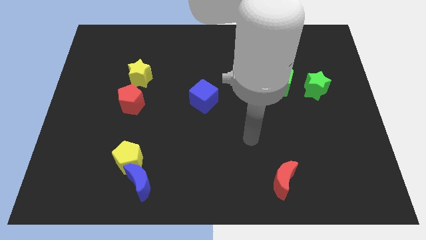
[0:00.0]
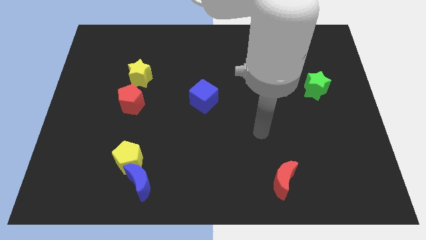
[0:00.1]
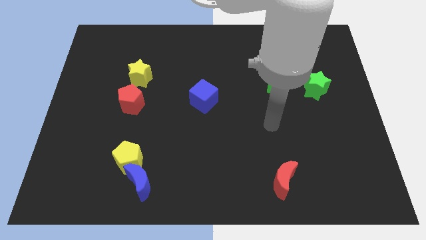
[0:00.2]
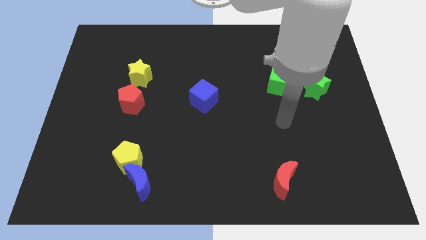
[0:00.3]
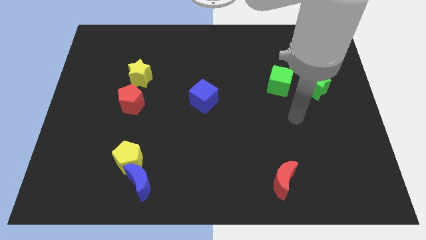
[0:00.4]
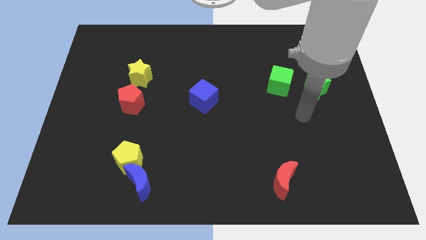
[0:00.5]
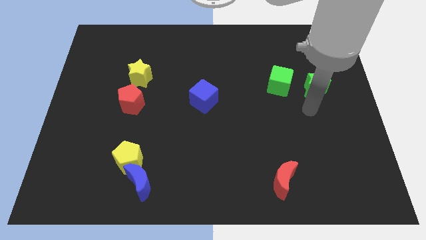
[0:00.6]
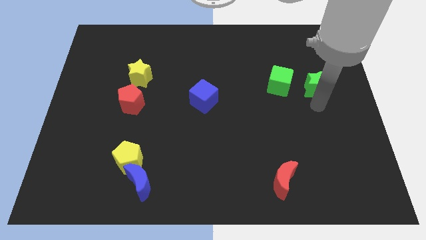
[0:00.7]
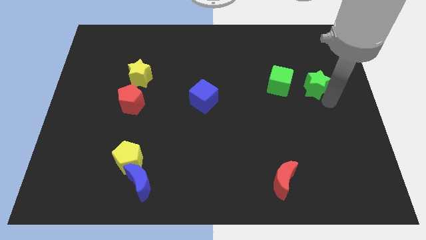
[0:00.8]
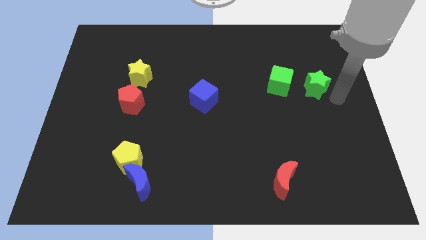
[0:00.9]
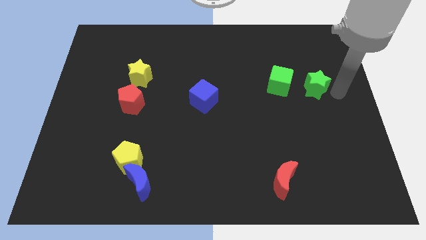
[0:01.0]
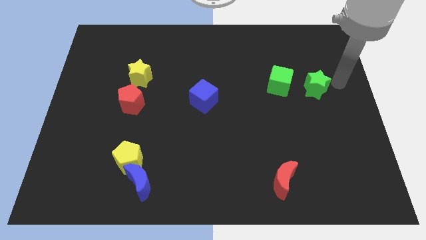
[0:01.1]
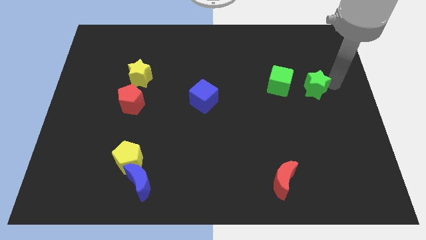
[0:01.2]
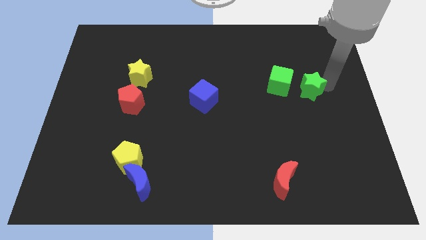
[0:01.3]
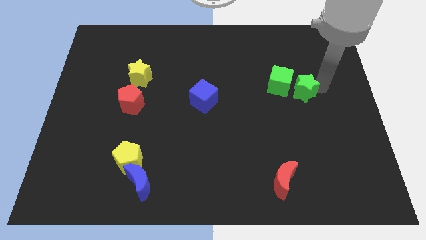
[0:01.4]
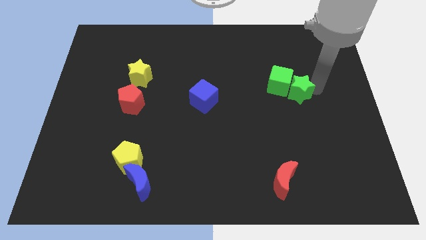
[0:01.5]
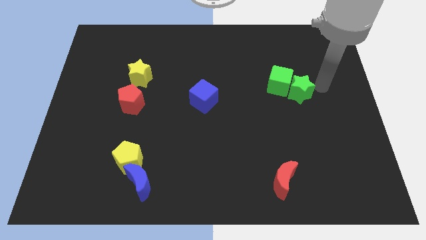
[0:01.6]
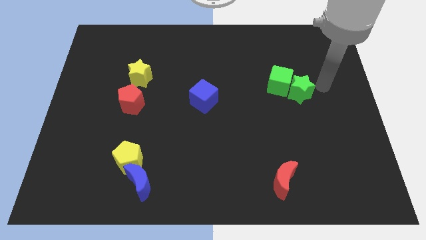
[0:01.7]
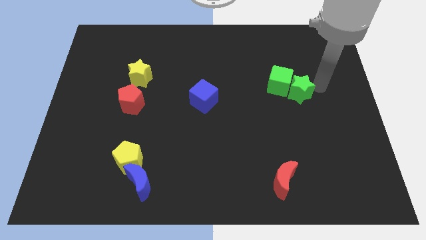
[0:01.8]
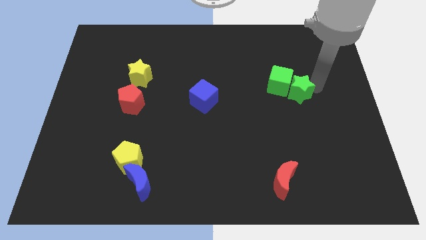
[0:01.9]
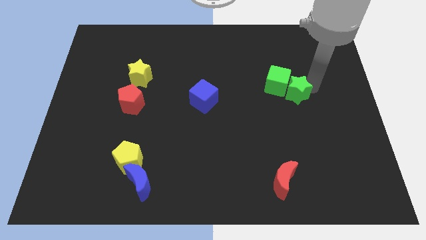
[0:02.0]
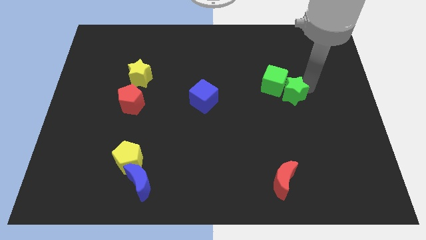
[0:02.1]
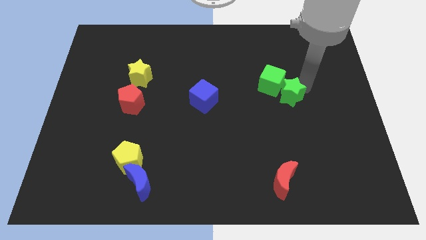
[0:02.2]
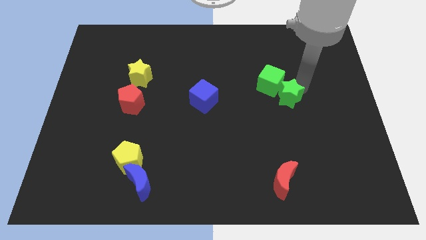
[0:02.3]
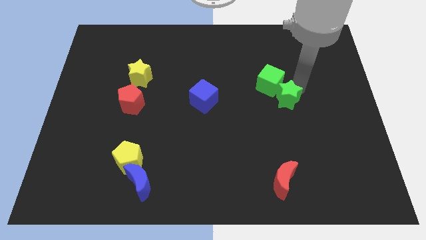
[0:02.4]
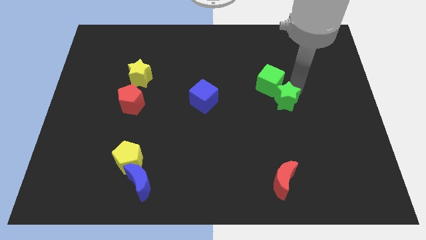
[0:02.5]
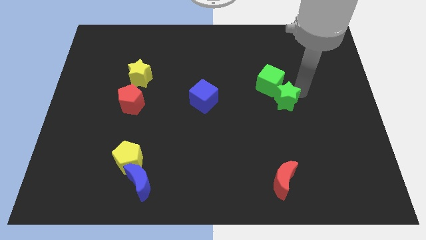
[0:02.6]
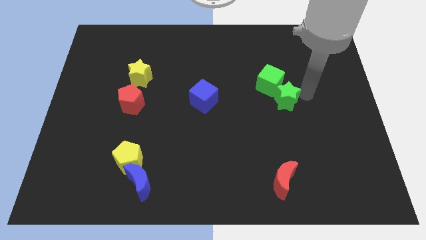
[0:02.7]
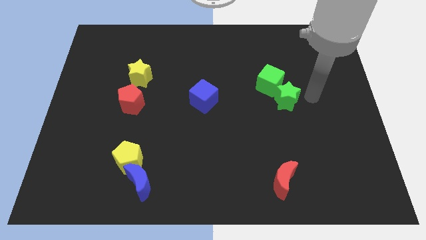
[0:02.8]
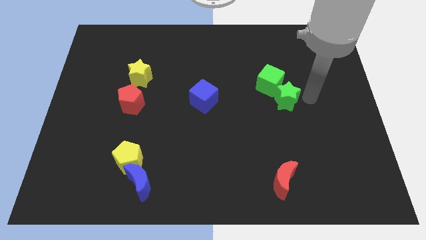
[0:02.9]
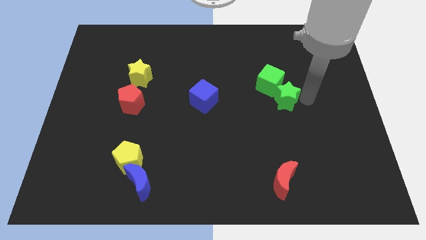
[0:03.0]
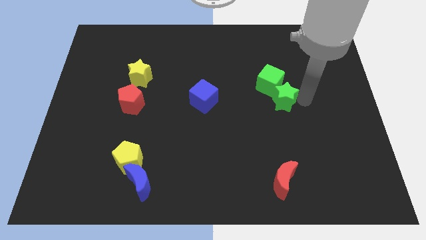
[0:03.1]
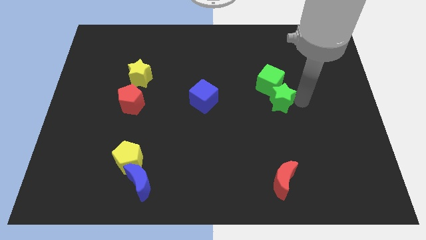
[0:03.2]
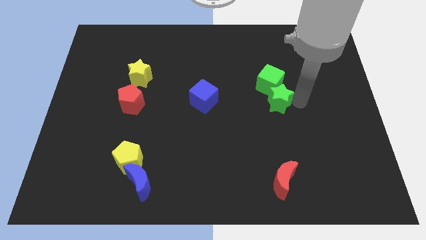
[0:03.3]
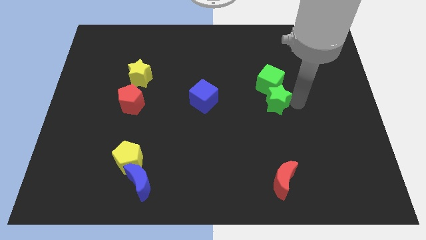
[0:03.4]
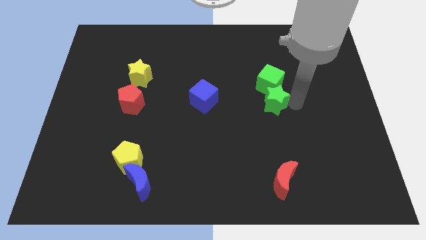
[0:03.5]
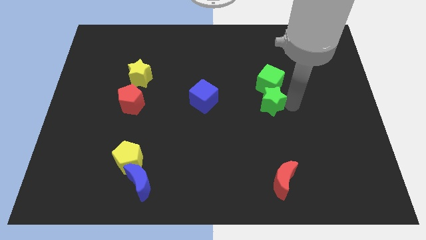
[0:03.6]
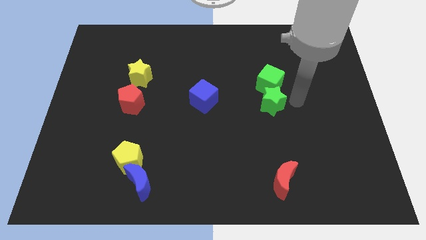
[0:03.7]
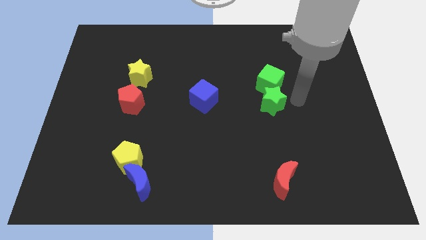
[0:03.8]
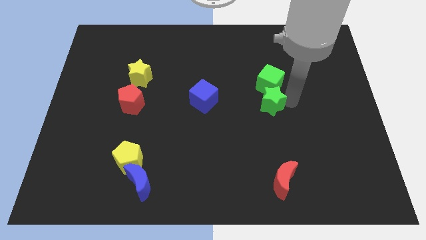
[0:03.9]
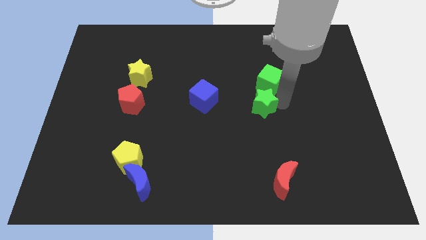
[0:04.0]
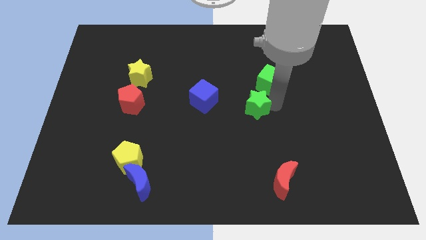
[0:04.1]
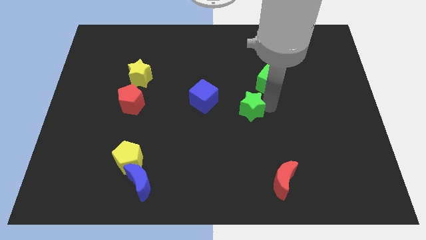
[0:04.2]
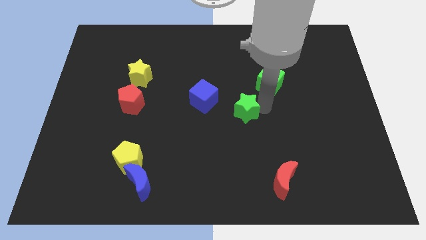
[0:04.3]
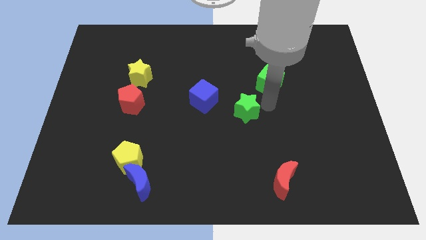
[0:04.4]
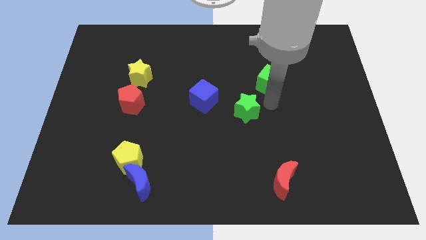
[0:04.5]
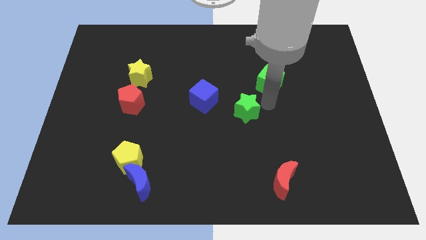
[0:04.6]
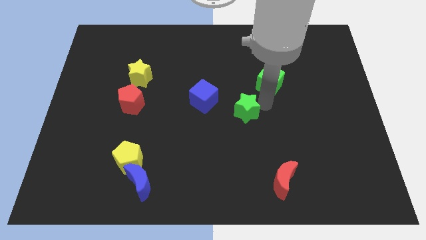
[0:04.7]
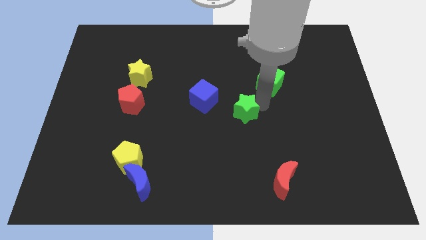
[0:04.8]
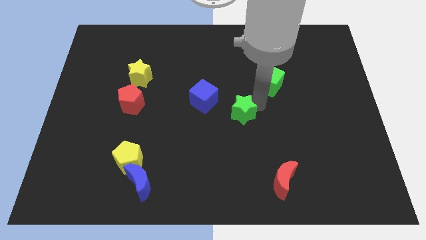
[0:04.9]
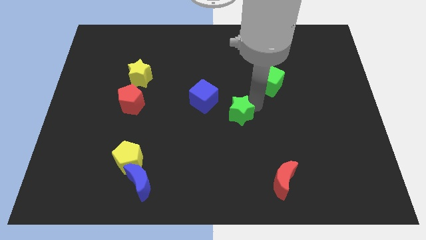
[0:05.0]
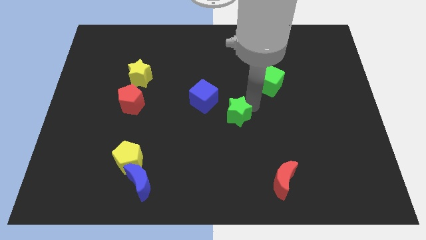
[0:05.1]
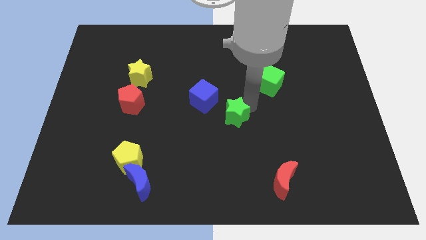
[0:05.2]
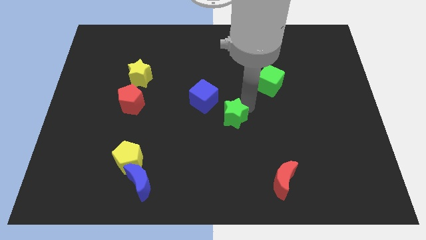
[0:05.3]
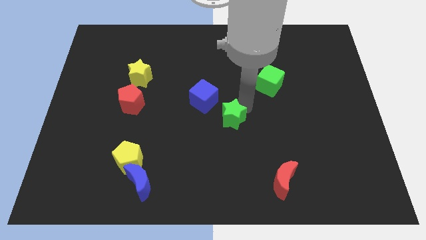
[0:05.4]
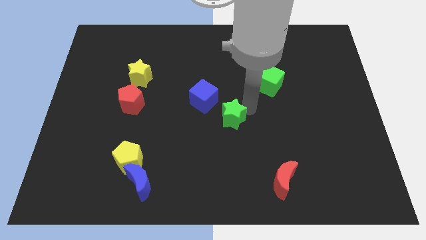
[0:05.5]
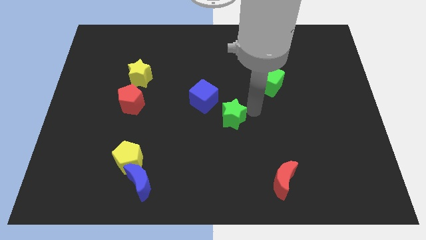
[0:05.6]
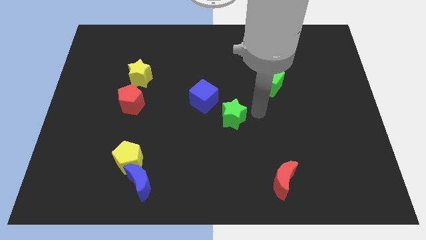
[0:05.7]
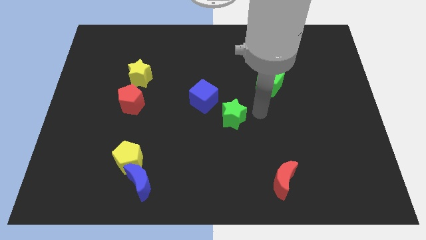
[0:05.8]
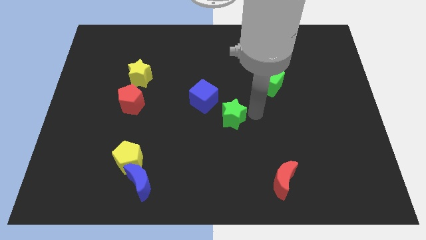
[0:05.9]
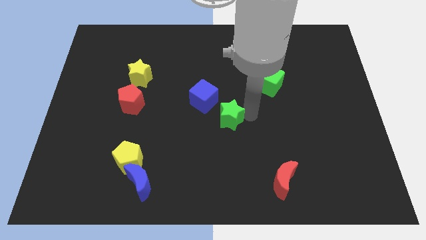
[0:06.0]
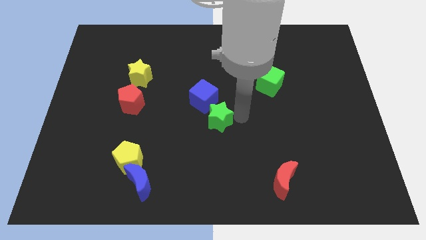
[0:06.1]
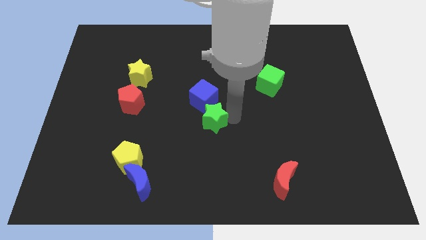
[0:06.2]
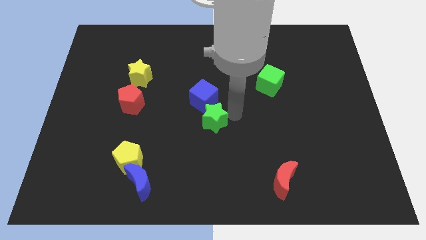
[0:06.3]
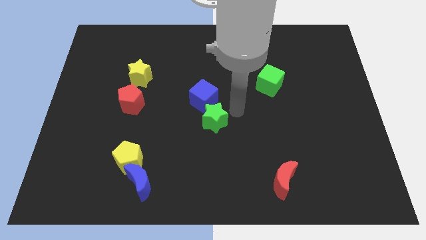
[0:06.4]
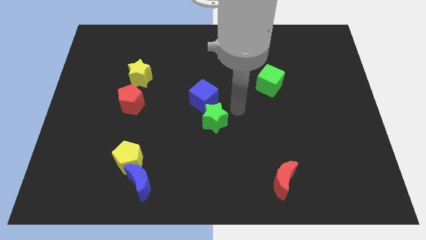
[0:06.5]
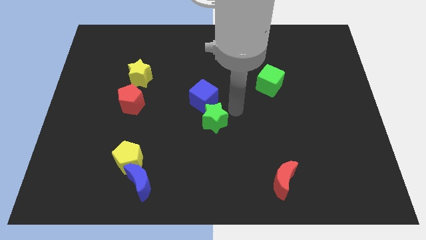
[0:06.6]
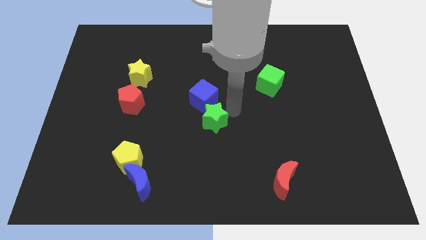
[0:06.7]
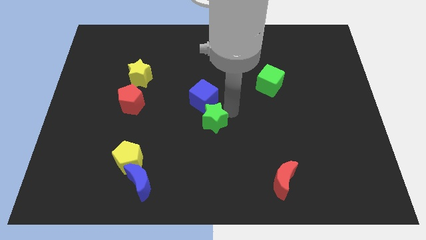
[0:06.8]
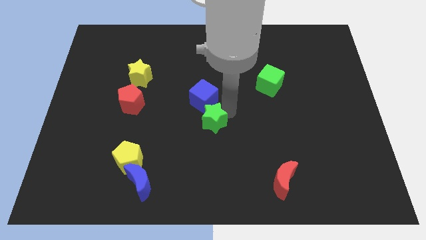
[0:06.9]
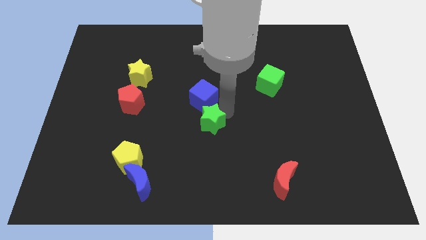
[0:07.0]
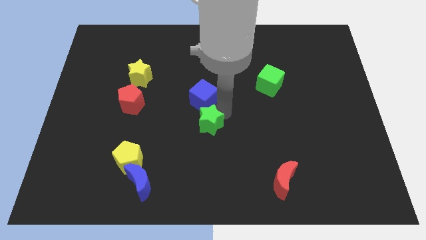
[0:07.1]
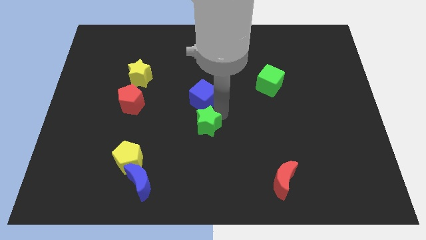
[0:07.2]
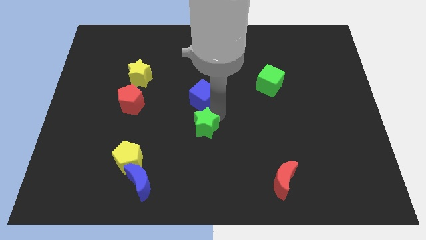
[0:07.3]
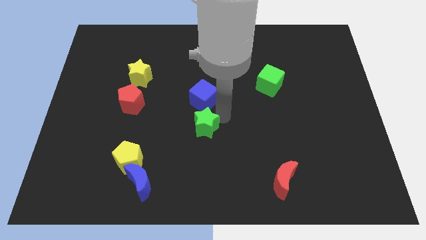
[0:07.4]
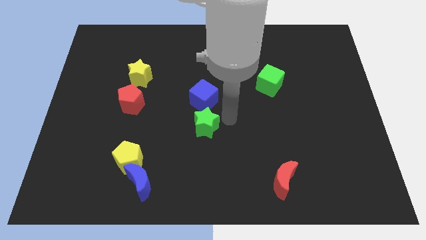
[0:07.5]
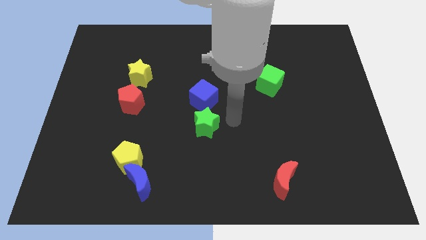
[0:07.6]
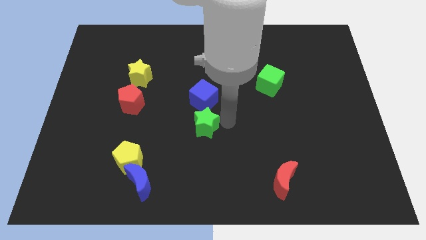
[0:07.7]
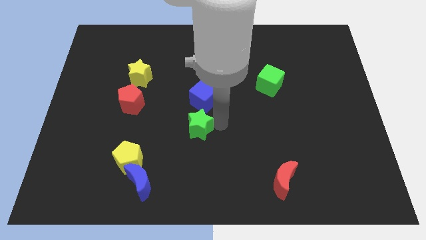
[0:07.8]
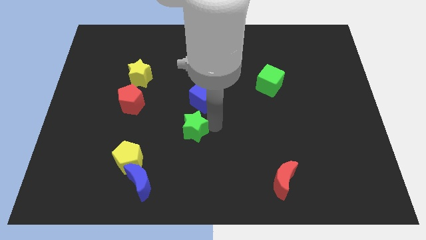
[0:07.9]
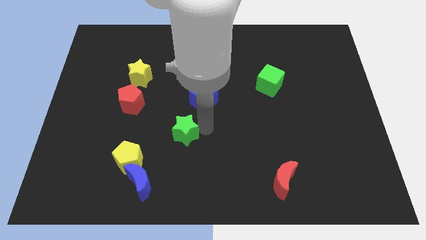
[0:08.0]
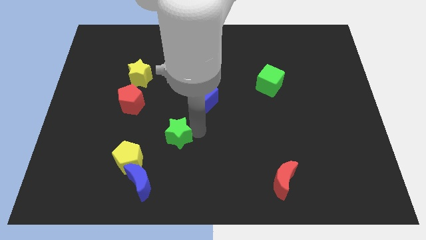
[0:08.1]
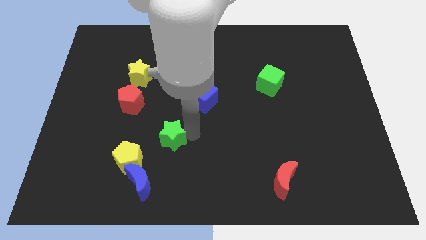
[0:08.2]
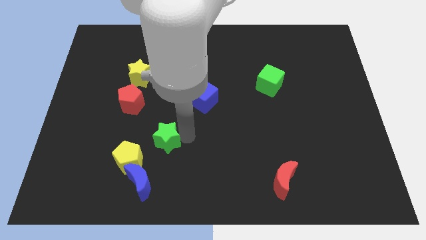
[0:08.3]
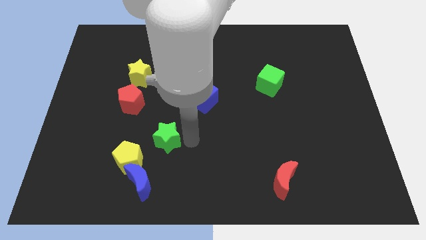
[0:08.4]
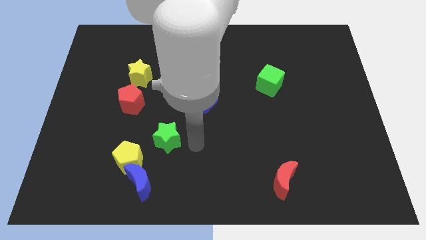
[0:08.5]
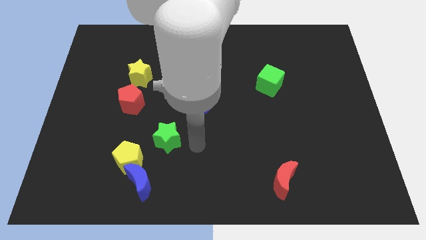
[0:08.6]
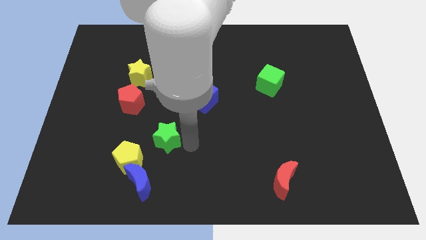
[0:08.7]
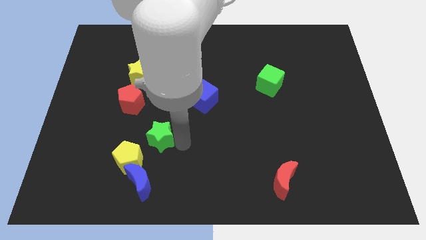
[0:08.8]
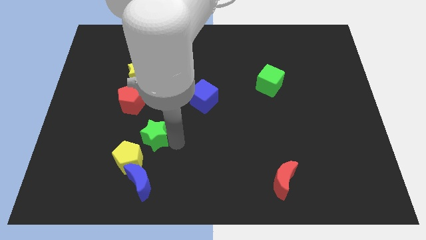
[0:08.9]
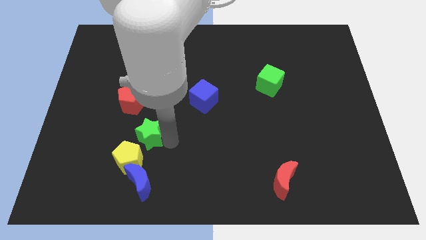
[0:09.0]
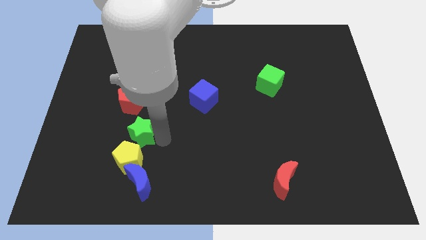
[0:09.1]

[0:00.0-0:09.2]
move the green star to the bottom of the red pentagon
